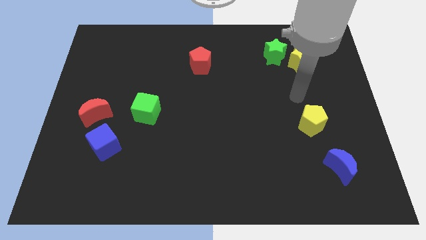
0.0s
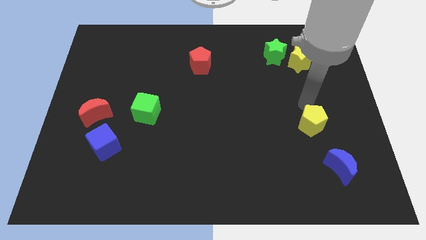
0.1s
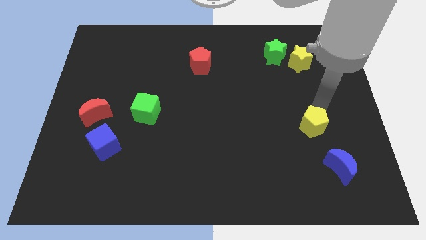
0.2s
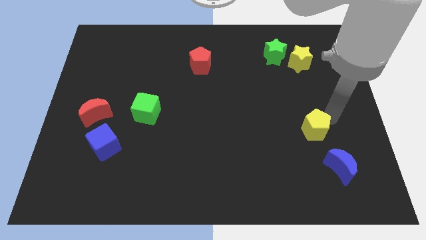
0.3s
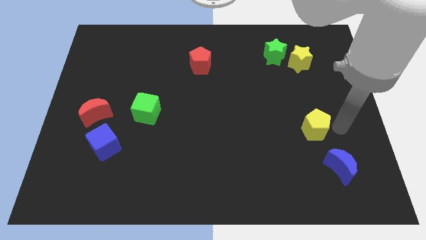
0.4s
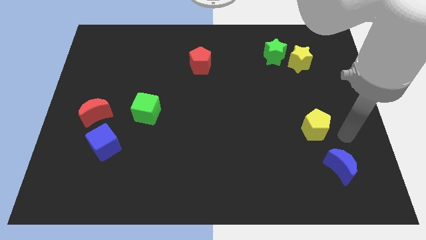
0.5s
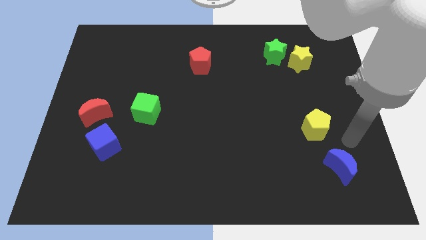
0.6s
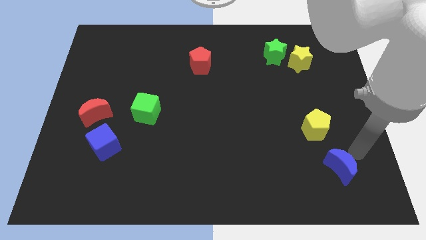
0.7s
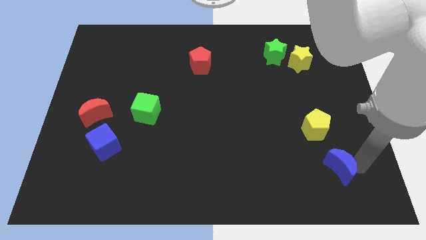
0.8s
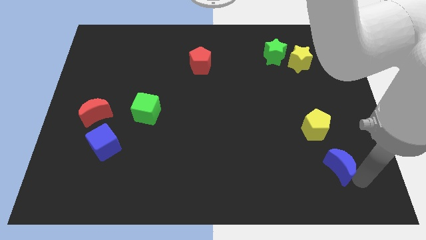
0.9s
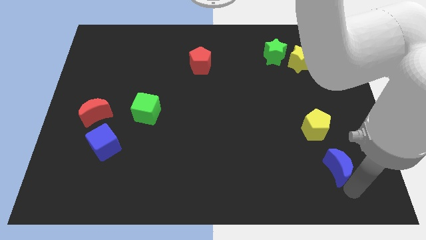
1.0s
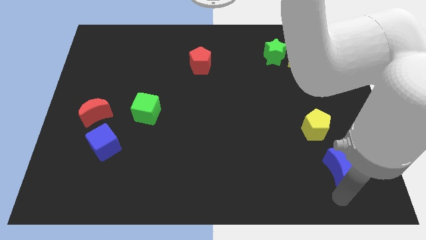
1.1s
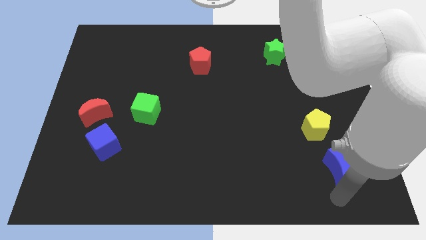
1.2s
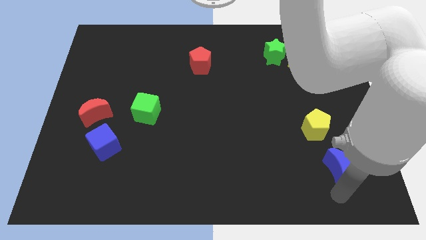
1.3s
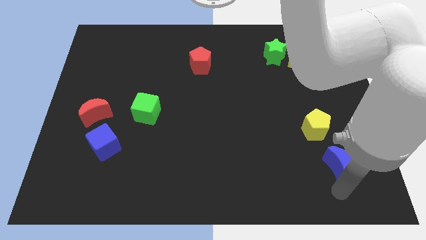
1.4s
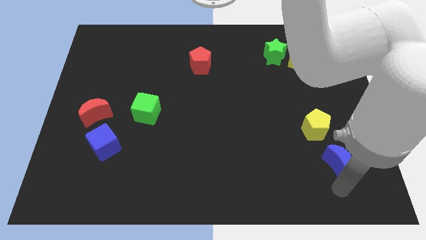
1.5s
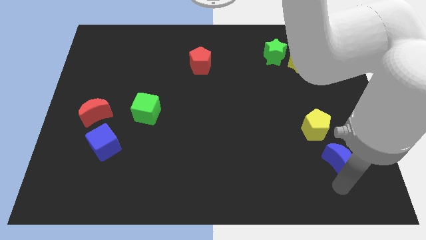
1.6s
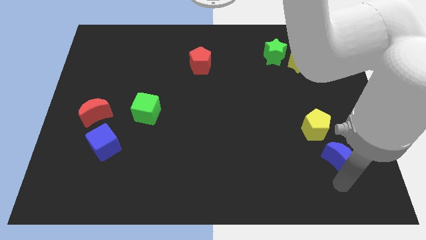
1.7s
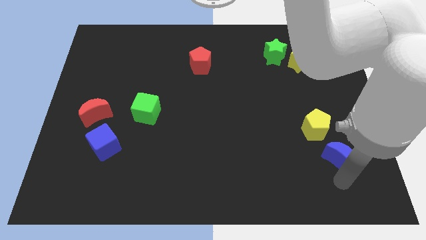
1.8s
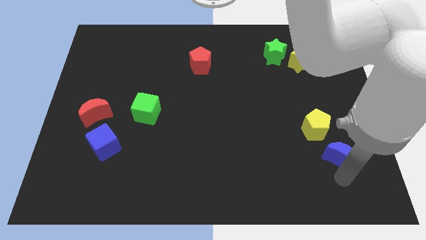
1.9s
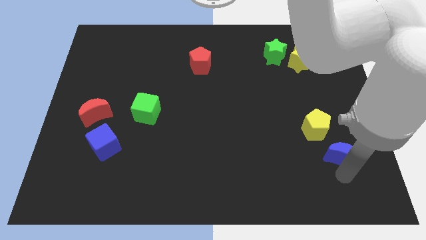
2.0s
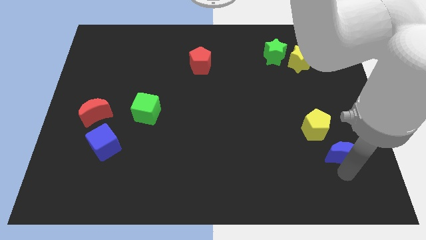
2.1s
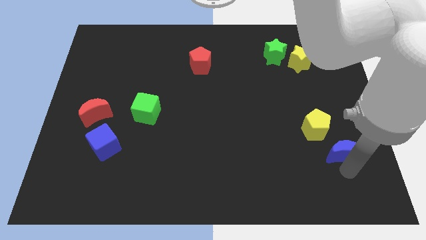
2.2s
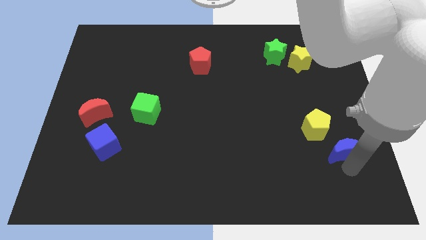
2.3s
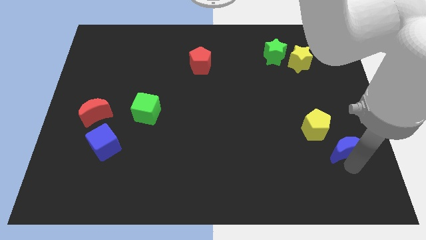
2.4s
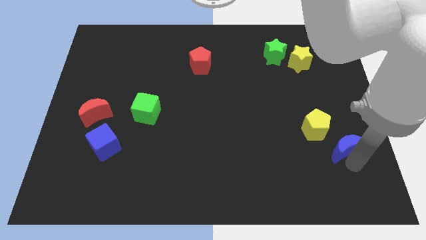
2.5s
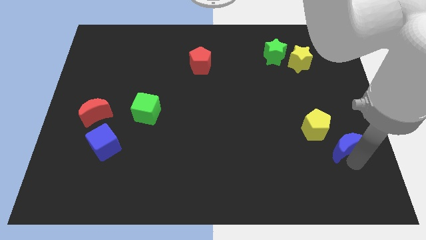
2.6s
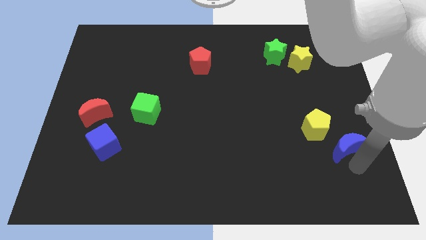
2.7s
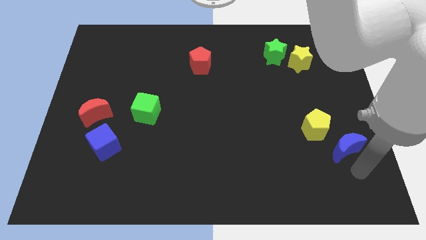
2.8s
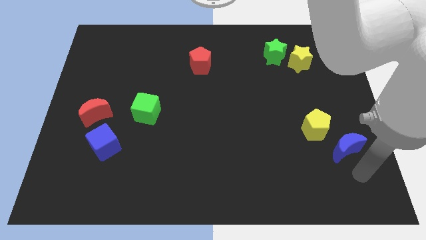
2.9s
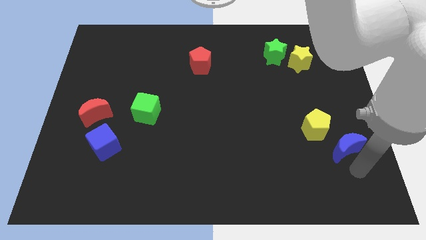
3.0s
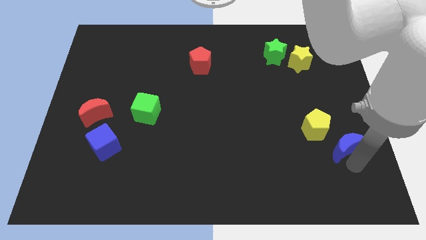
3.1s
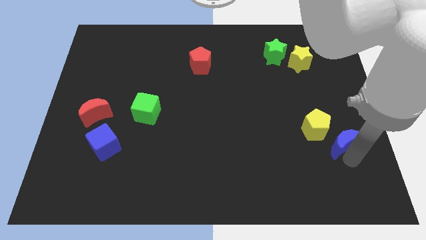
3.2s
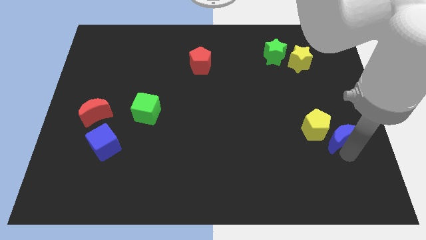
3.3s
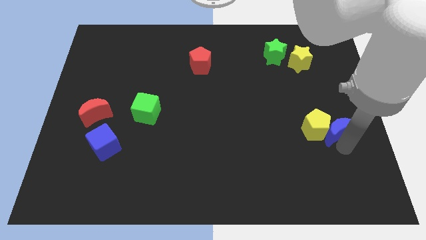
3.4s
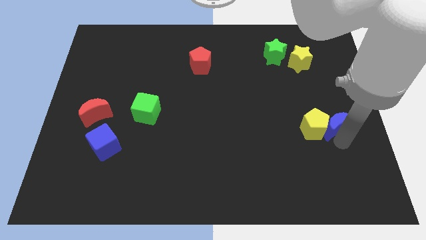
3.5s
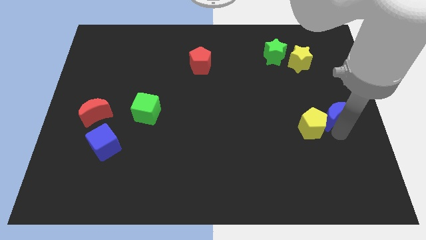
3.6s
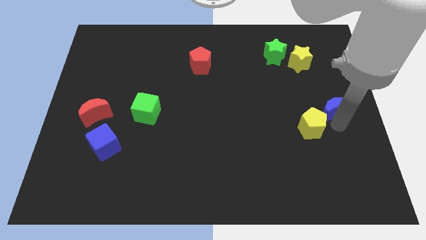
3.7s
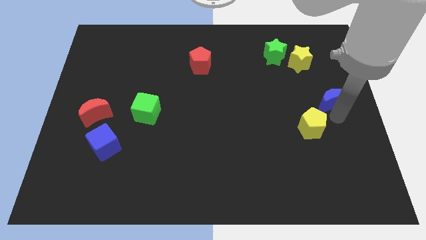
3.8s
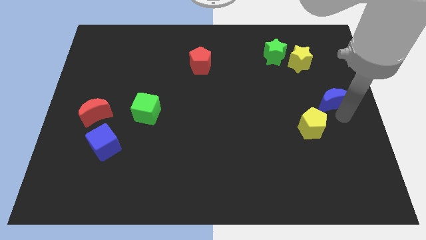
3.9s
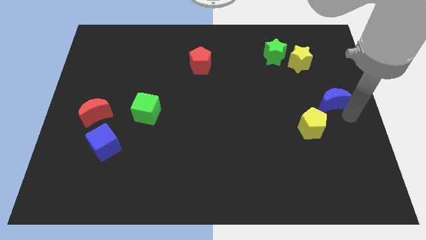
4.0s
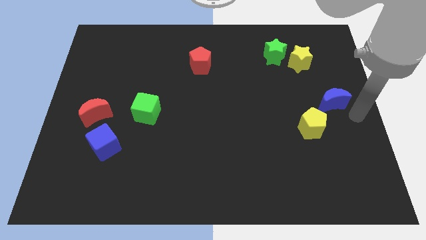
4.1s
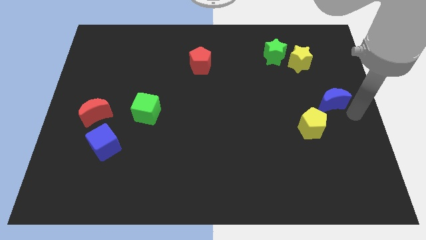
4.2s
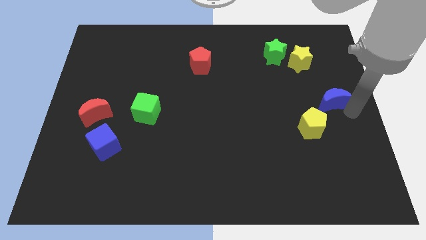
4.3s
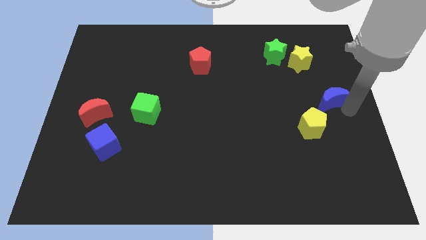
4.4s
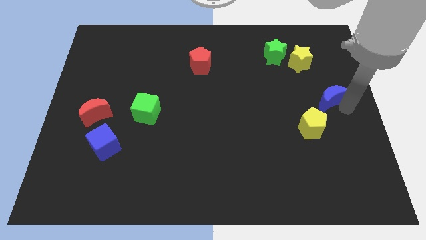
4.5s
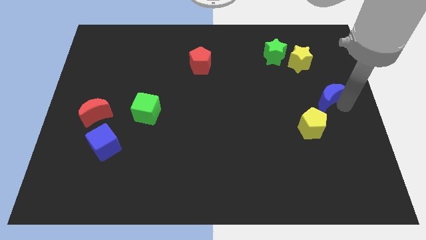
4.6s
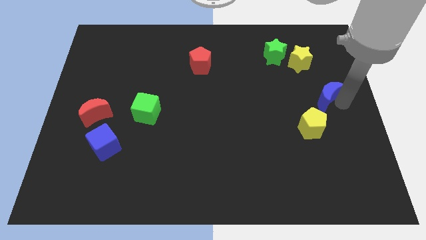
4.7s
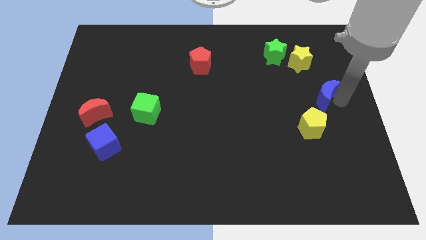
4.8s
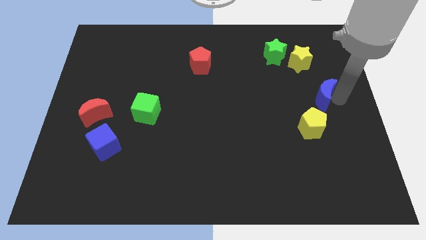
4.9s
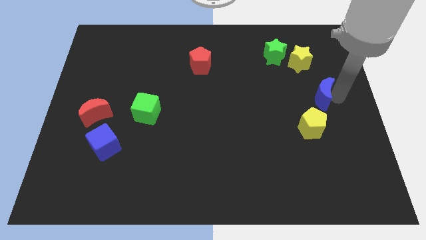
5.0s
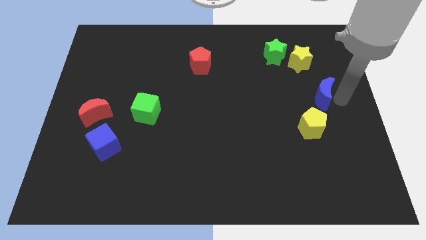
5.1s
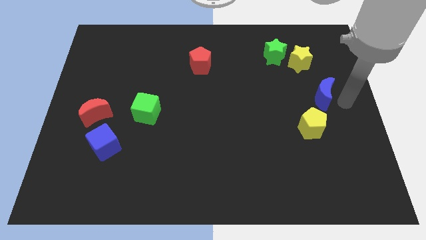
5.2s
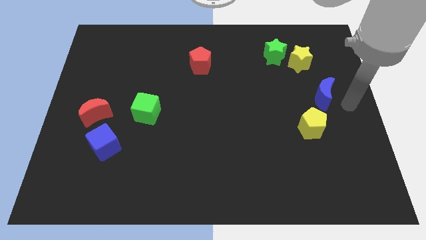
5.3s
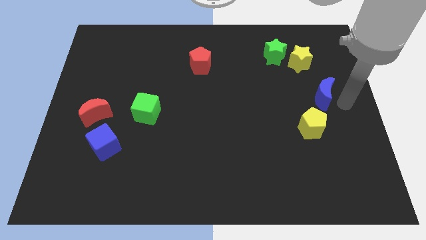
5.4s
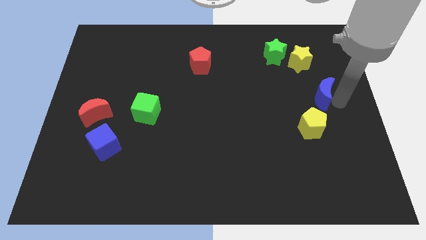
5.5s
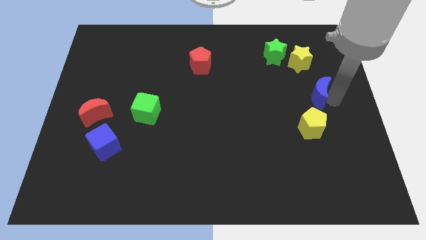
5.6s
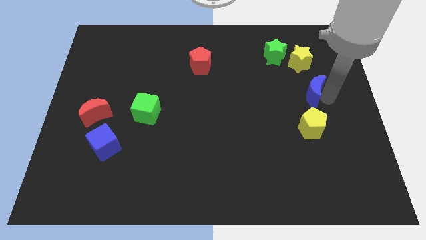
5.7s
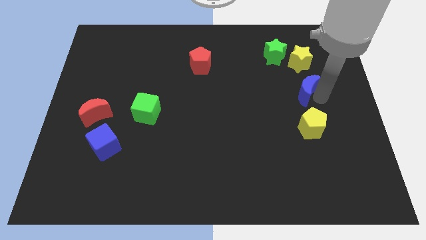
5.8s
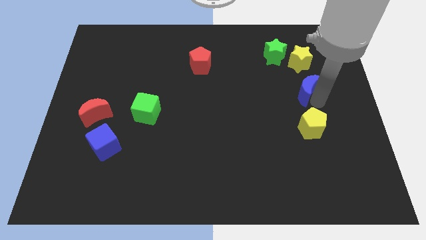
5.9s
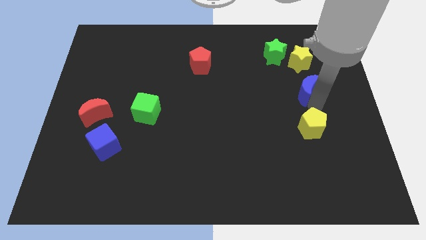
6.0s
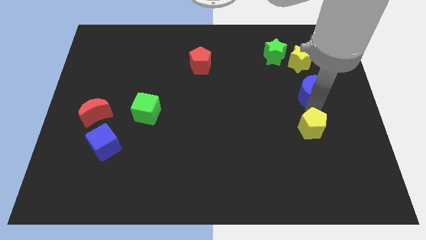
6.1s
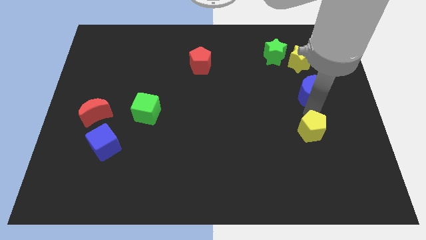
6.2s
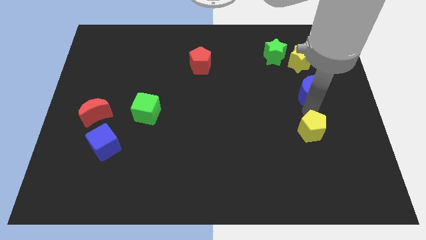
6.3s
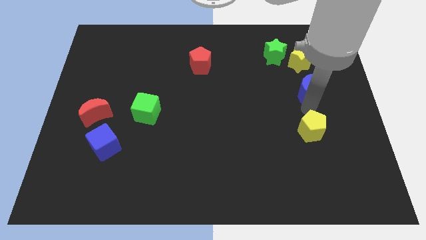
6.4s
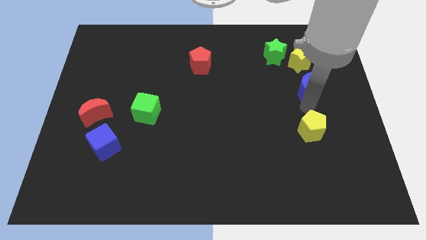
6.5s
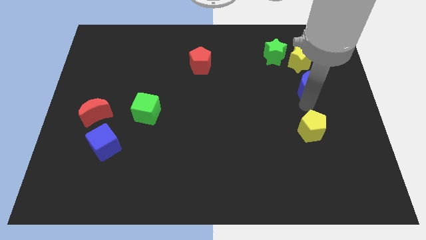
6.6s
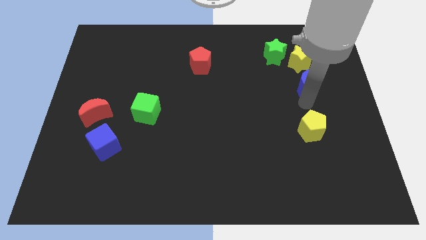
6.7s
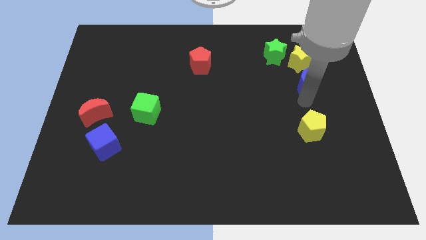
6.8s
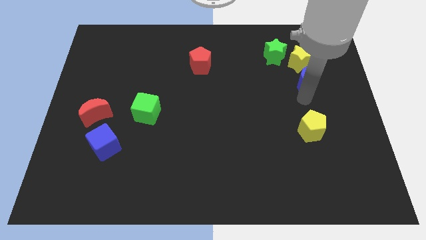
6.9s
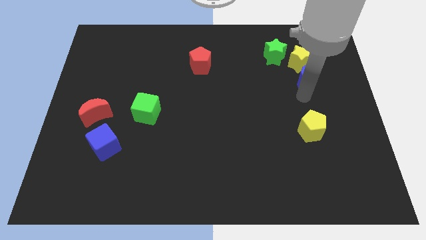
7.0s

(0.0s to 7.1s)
push the blue moon towards the yellow star

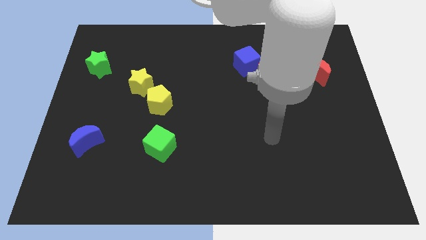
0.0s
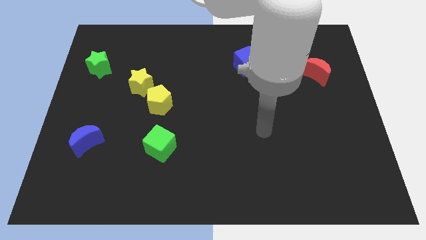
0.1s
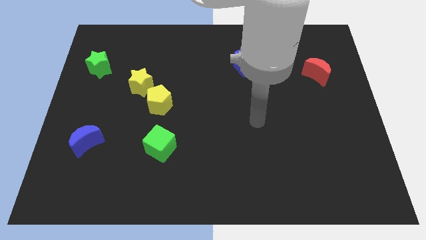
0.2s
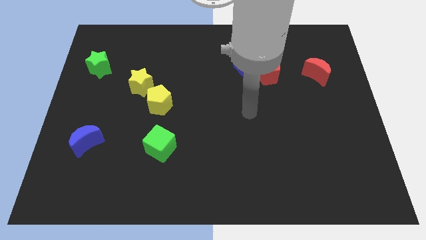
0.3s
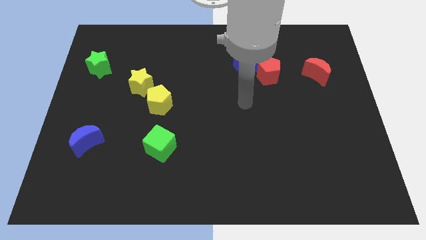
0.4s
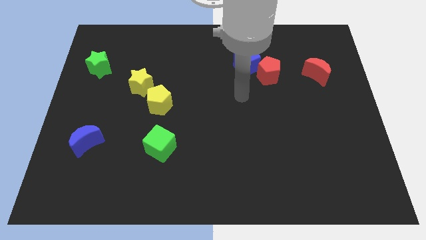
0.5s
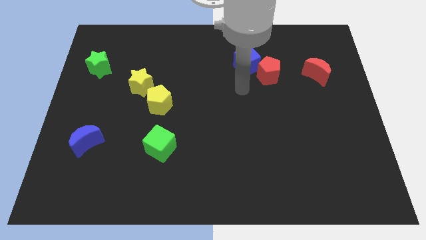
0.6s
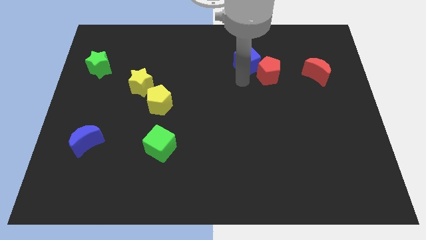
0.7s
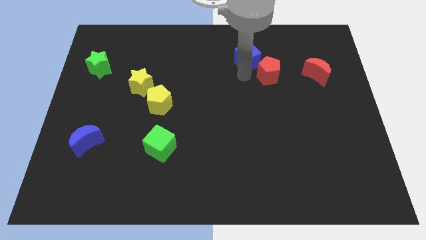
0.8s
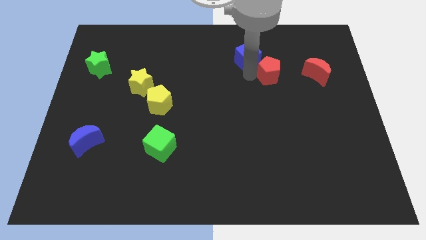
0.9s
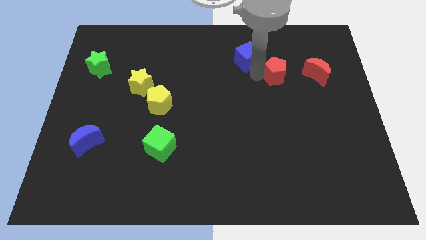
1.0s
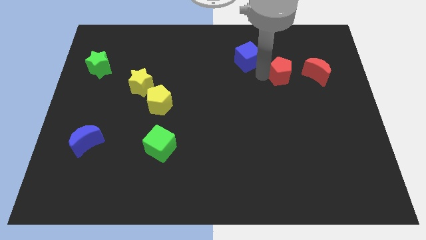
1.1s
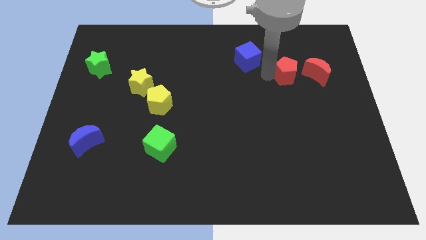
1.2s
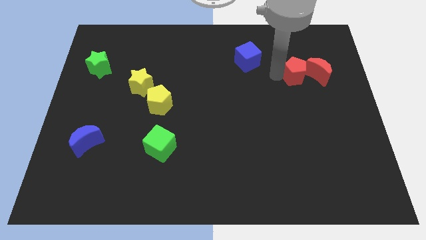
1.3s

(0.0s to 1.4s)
push the red pentagon close to the red moon
